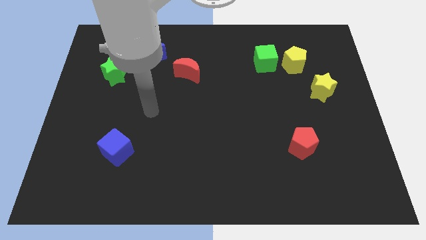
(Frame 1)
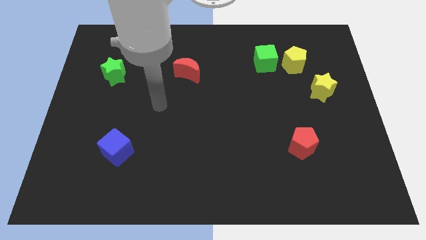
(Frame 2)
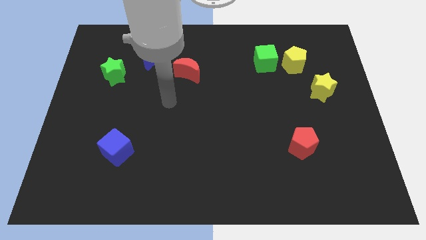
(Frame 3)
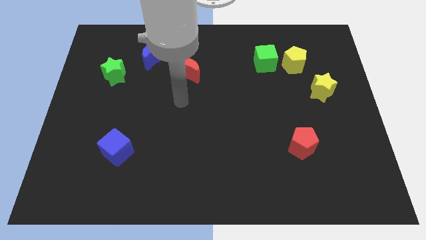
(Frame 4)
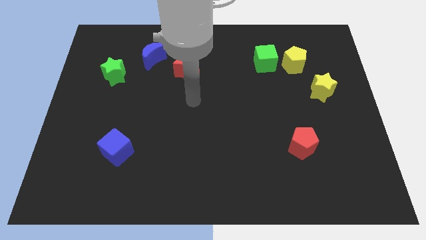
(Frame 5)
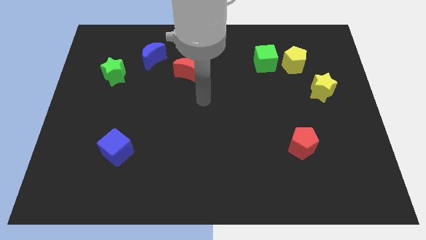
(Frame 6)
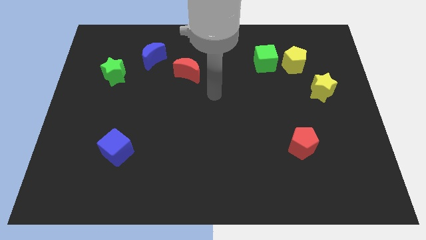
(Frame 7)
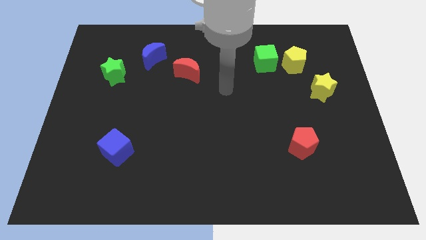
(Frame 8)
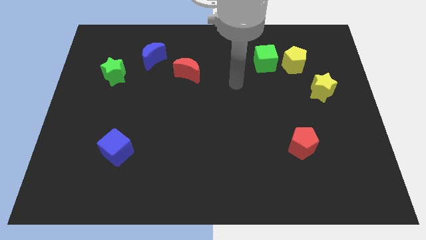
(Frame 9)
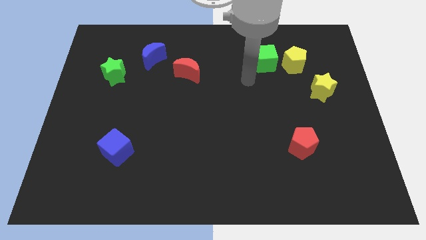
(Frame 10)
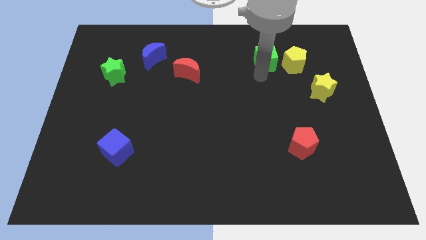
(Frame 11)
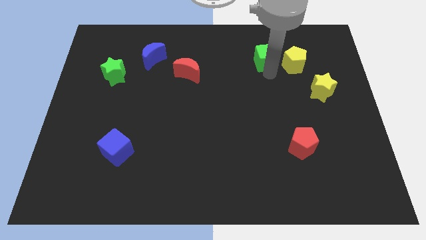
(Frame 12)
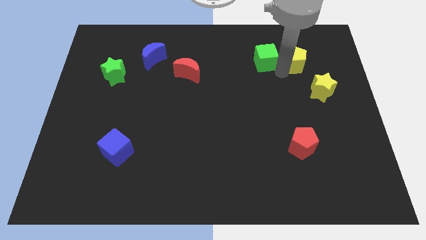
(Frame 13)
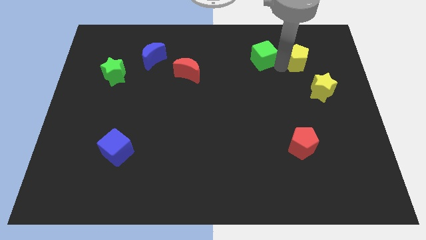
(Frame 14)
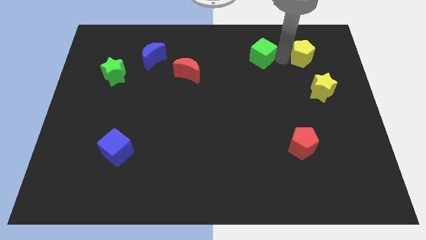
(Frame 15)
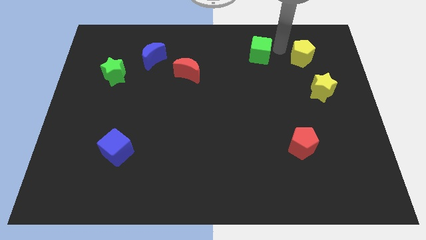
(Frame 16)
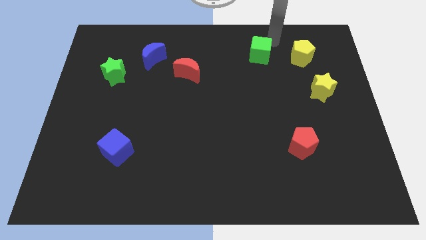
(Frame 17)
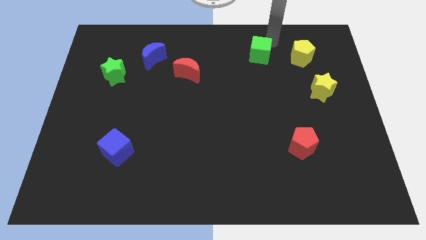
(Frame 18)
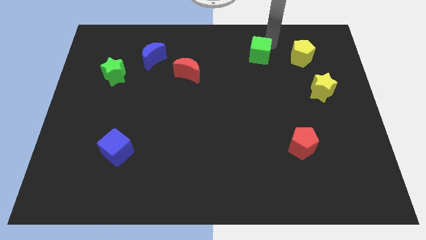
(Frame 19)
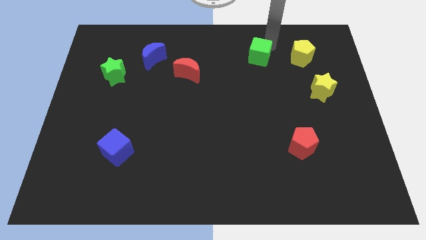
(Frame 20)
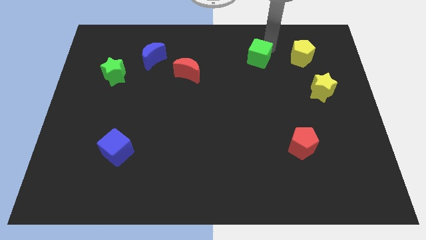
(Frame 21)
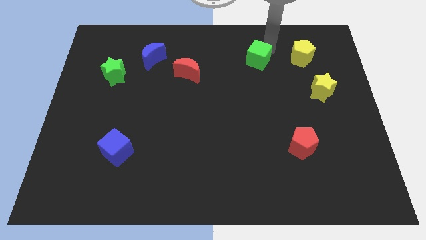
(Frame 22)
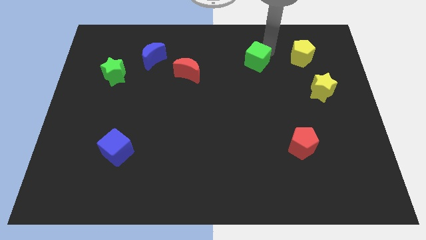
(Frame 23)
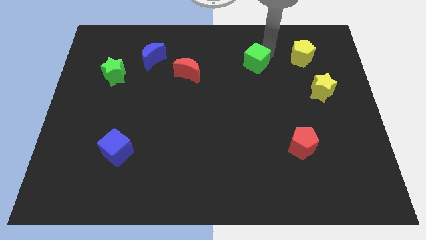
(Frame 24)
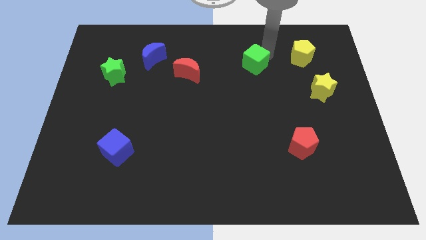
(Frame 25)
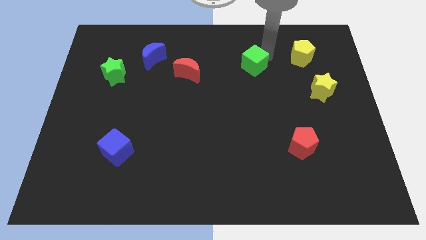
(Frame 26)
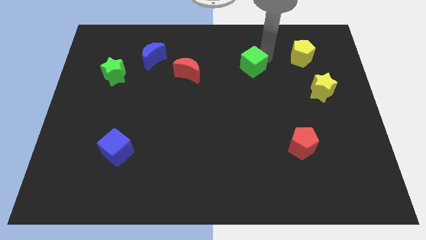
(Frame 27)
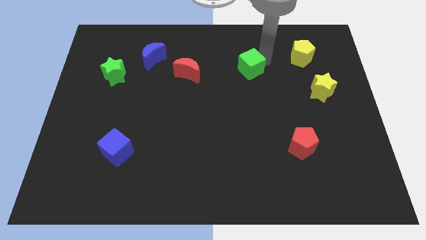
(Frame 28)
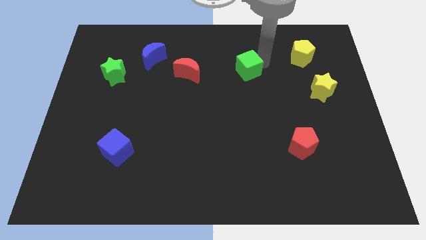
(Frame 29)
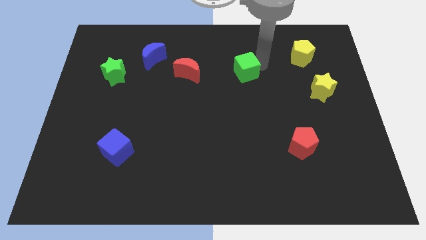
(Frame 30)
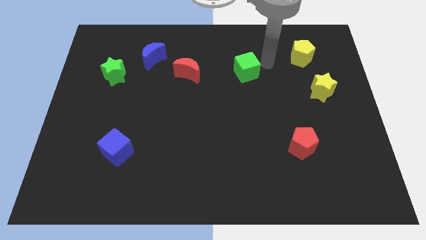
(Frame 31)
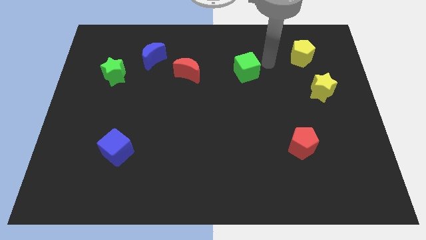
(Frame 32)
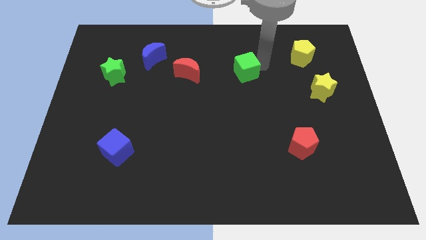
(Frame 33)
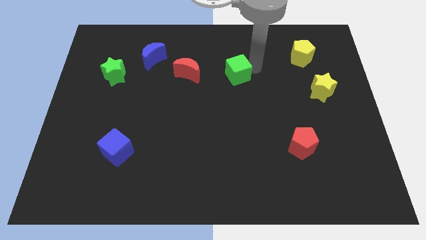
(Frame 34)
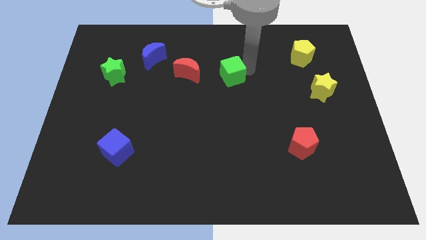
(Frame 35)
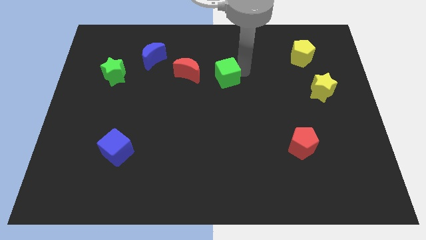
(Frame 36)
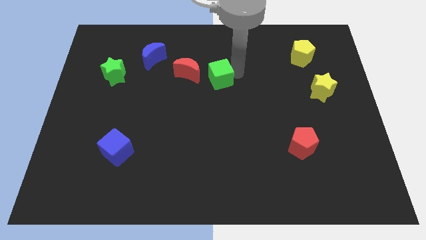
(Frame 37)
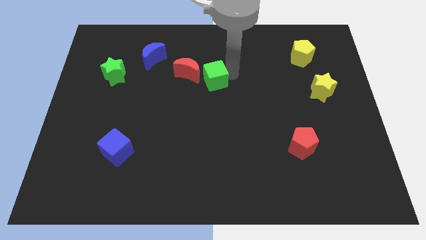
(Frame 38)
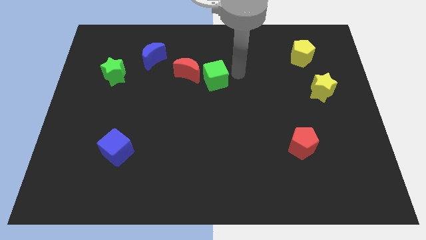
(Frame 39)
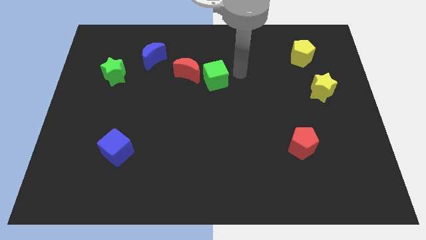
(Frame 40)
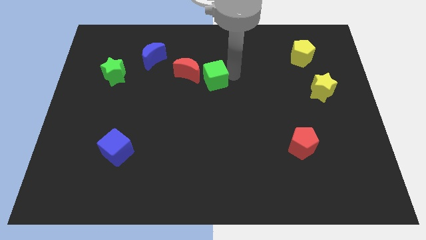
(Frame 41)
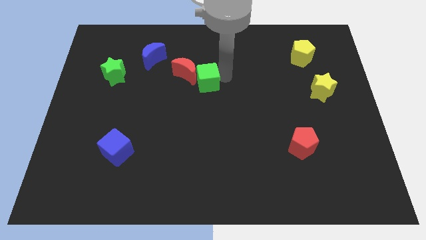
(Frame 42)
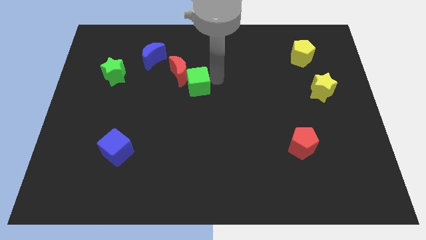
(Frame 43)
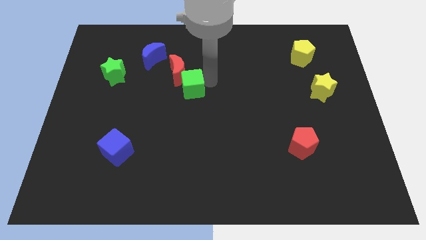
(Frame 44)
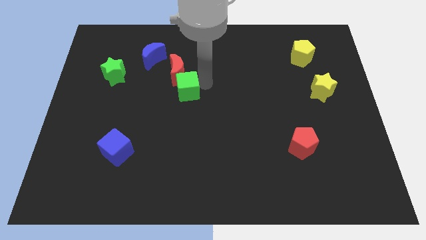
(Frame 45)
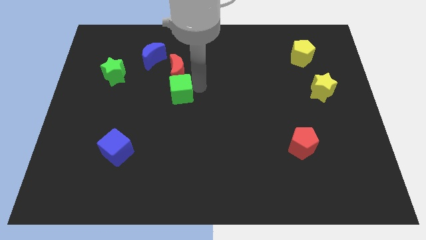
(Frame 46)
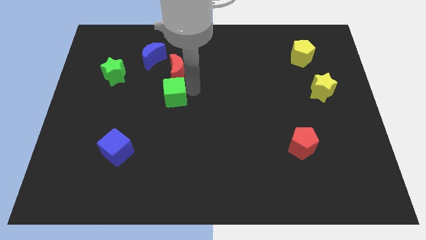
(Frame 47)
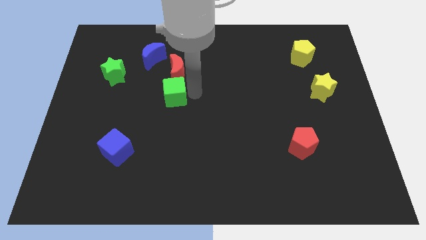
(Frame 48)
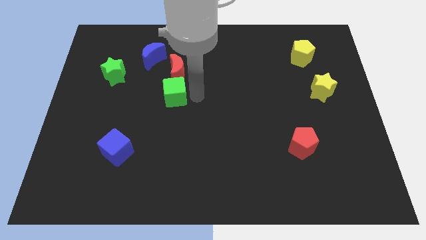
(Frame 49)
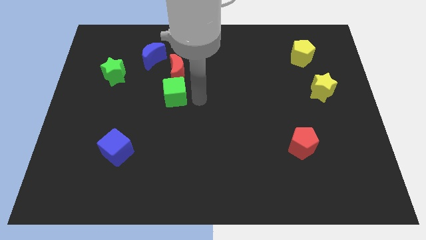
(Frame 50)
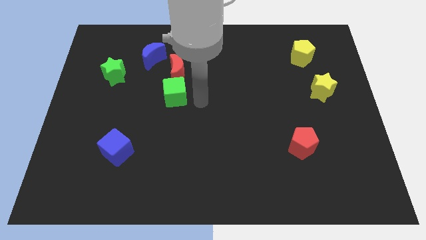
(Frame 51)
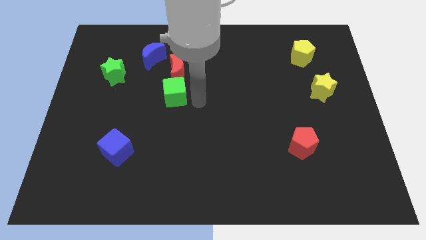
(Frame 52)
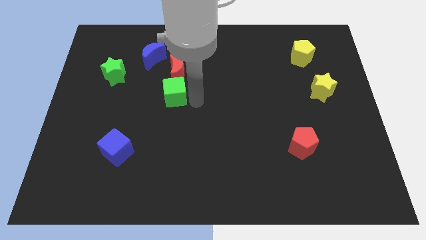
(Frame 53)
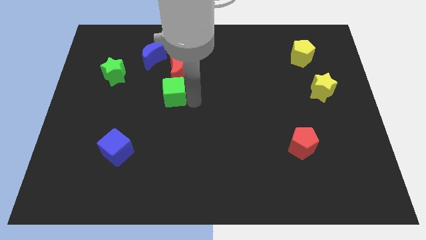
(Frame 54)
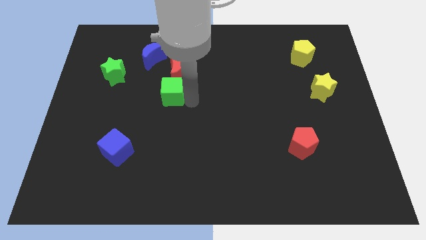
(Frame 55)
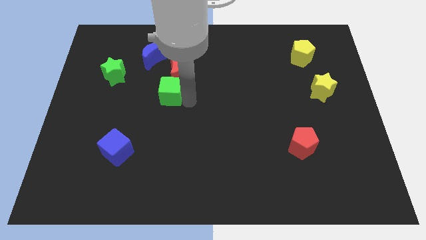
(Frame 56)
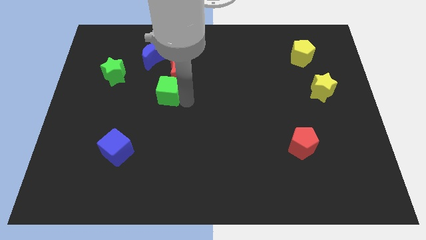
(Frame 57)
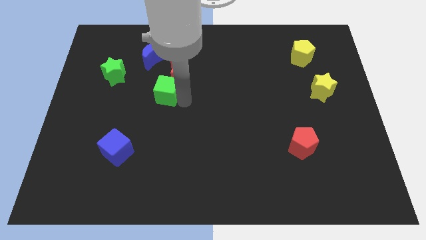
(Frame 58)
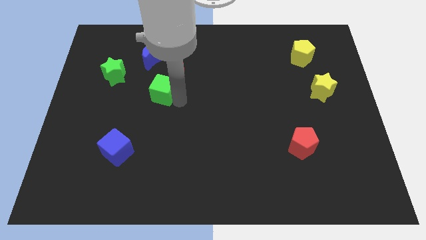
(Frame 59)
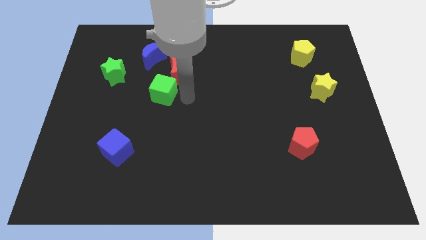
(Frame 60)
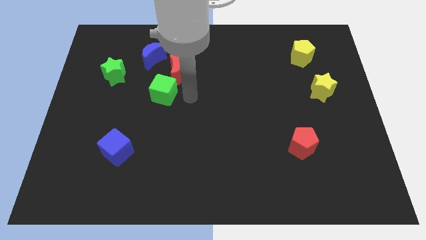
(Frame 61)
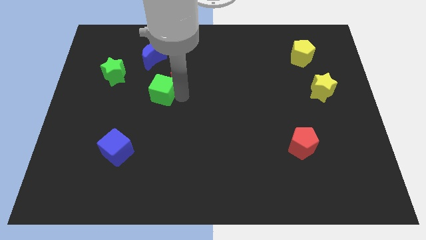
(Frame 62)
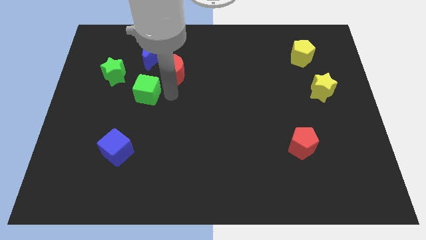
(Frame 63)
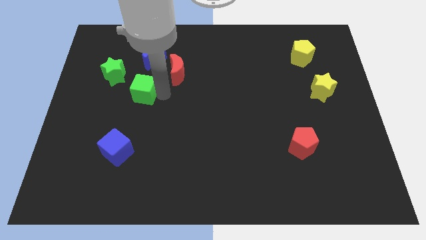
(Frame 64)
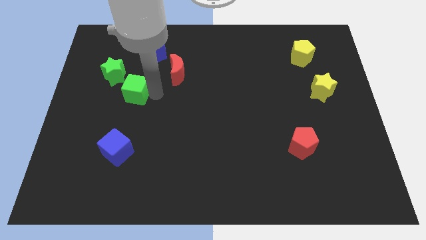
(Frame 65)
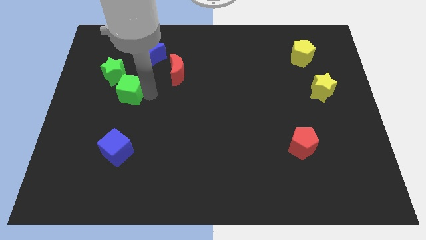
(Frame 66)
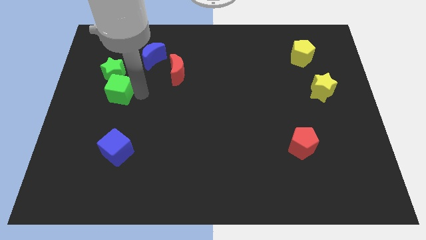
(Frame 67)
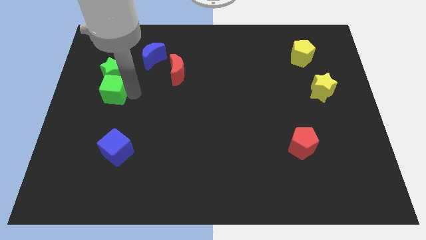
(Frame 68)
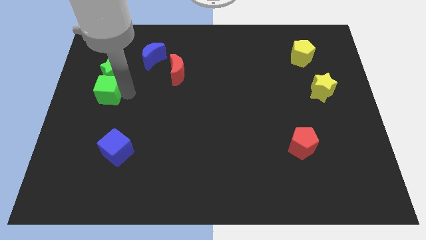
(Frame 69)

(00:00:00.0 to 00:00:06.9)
slide the green cube to the left side
